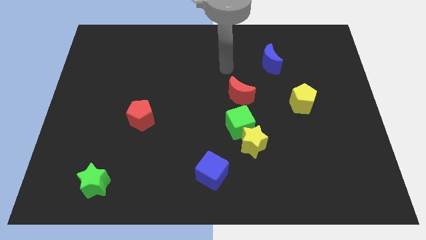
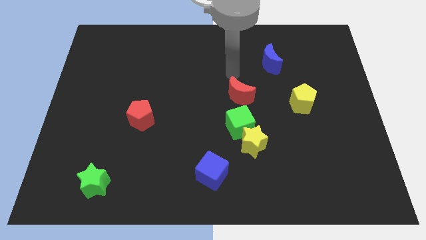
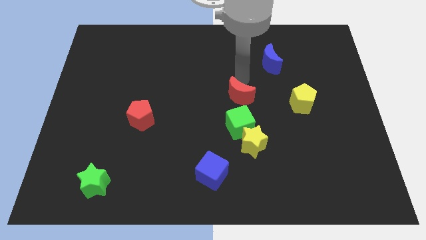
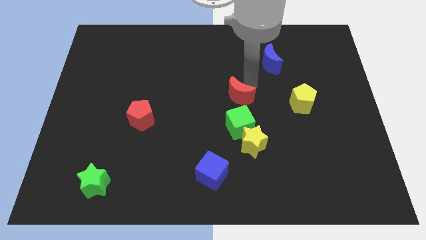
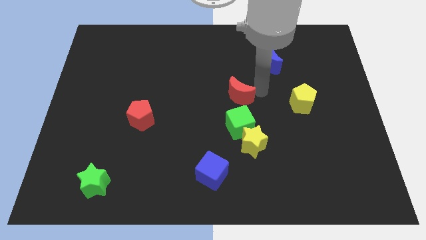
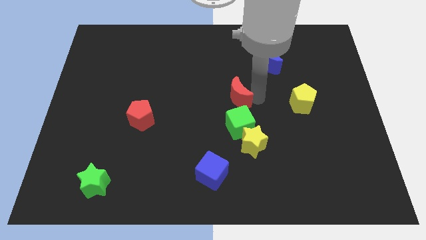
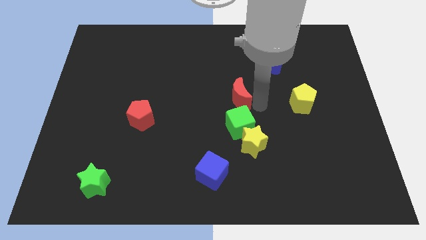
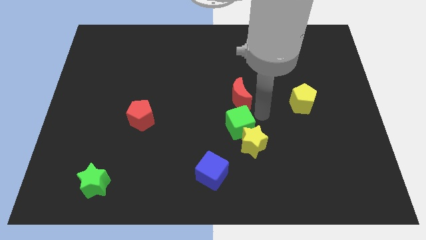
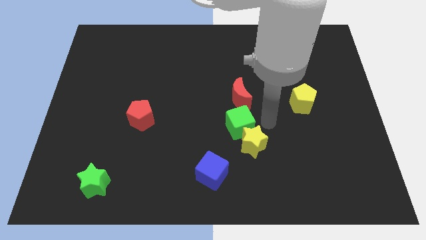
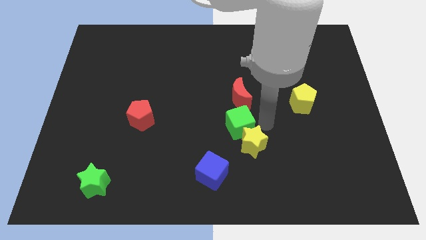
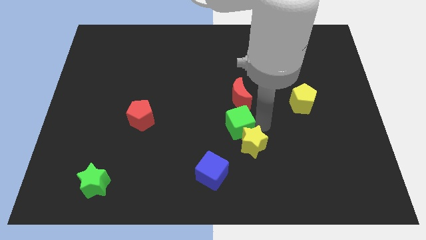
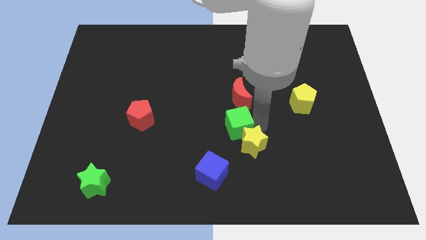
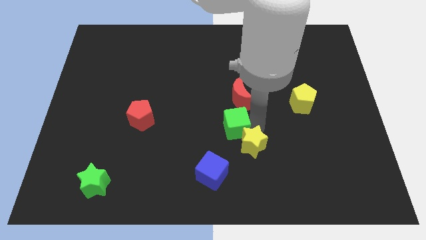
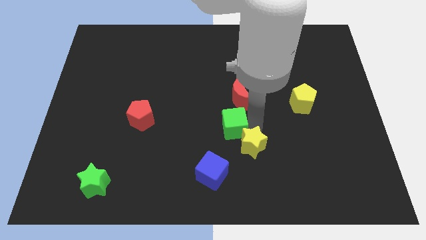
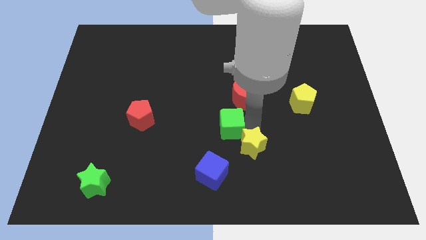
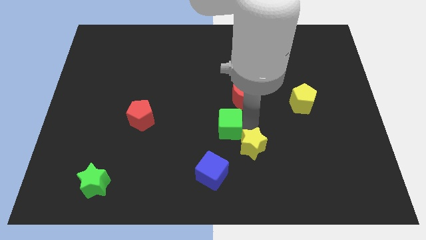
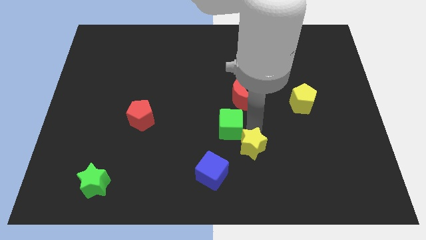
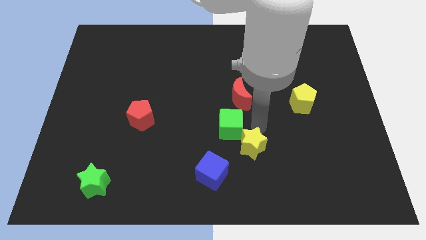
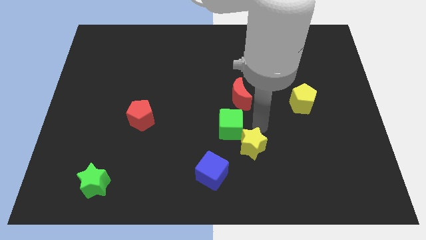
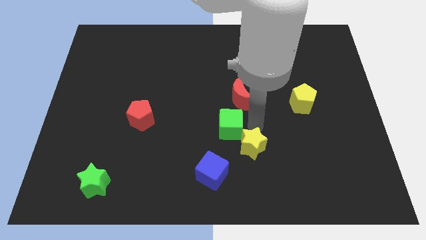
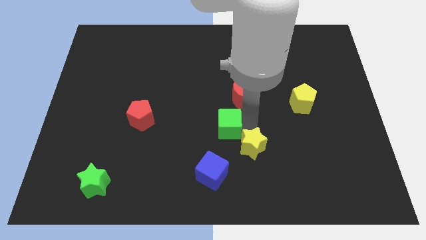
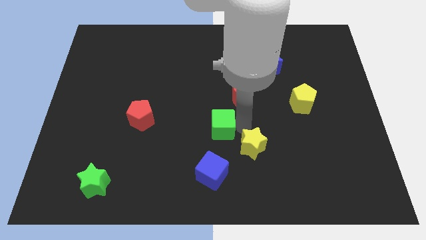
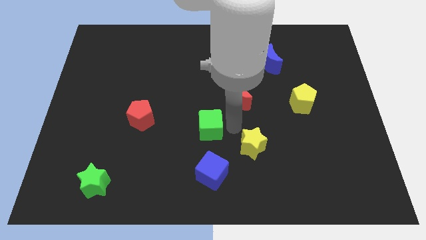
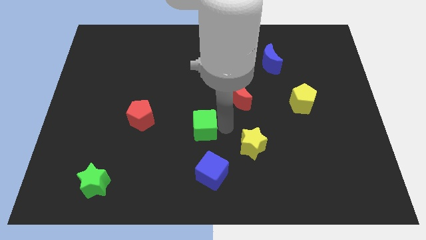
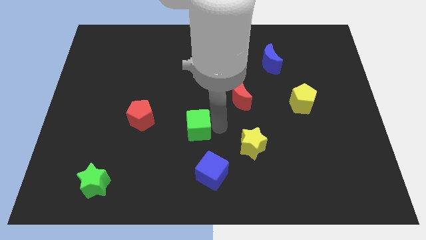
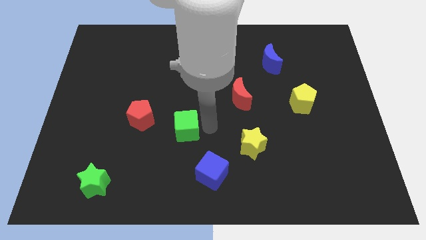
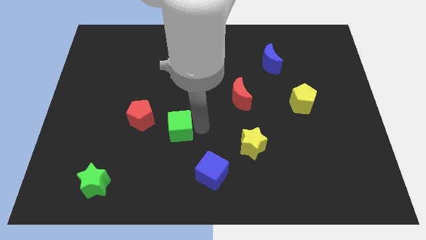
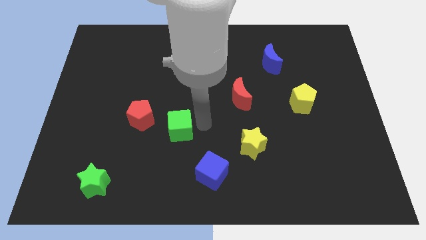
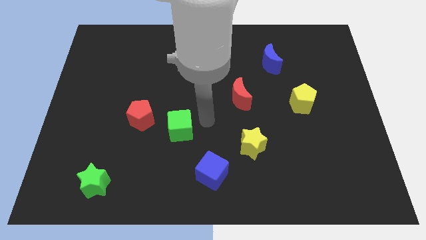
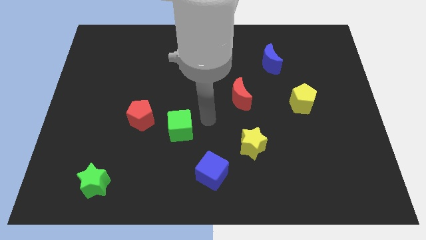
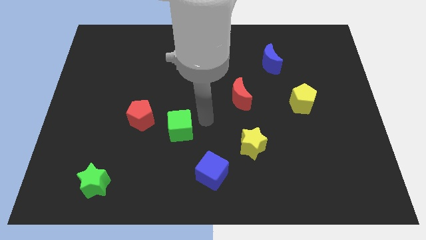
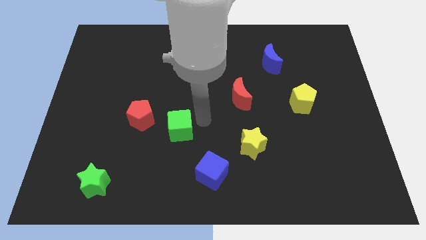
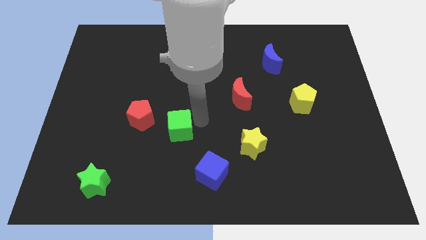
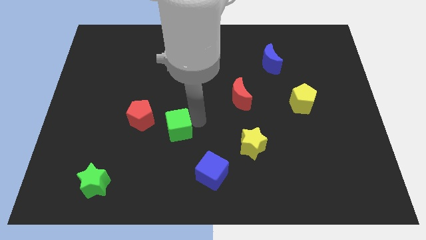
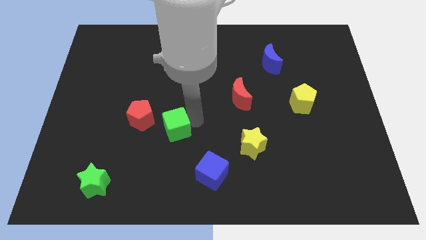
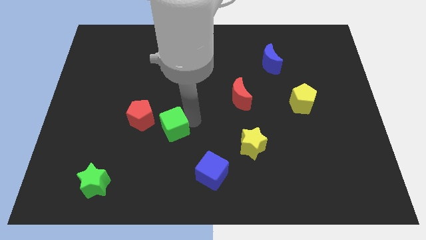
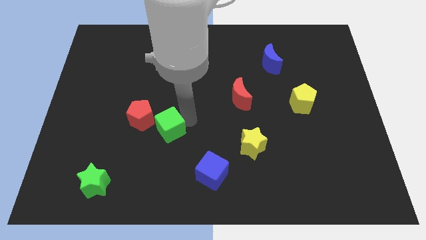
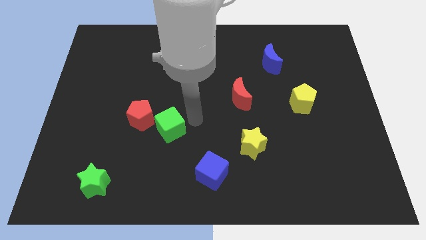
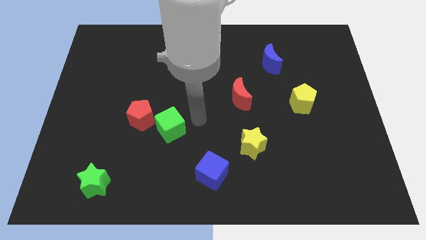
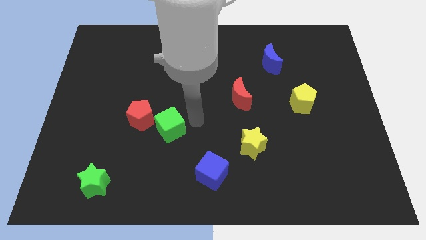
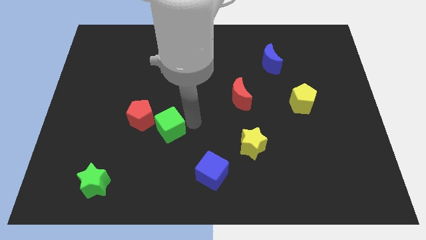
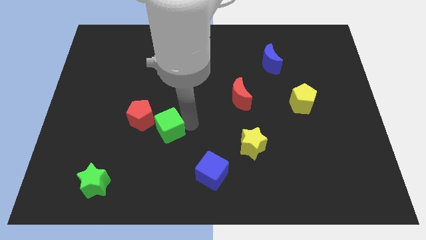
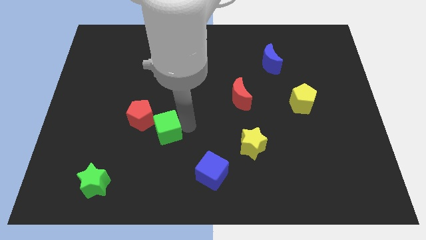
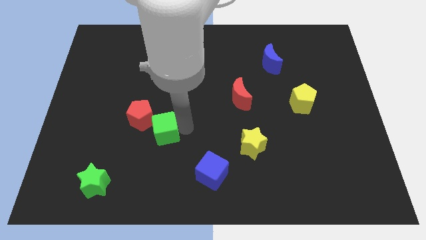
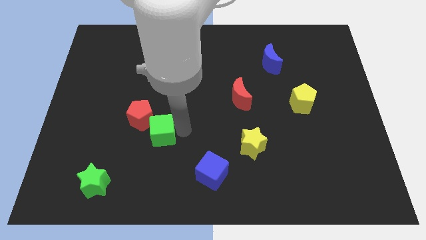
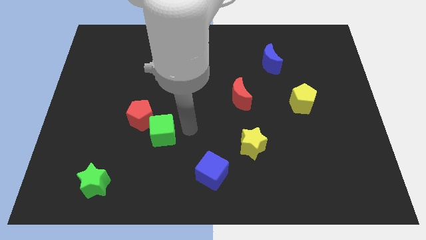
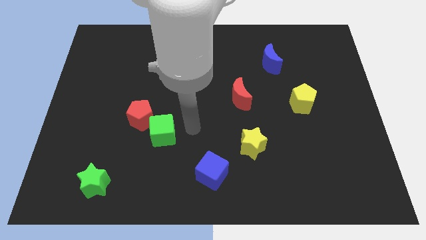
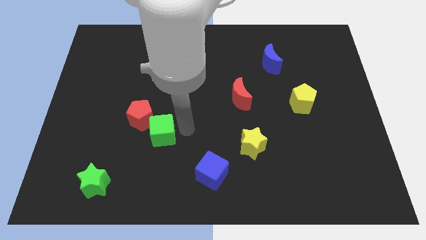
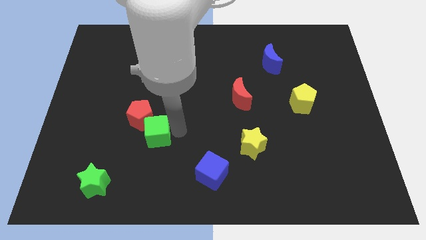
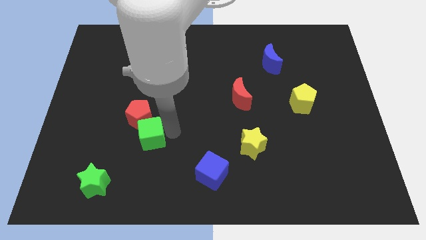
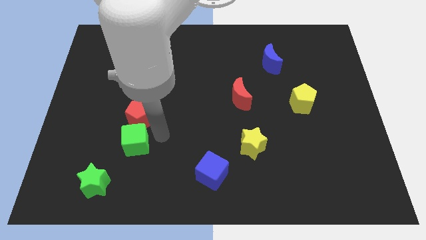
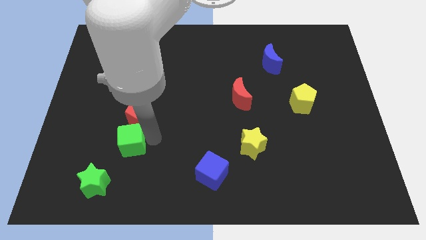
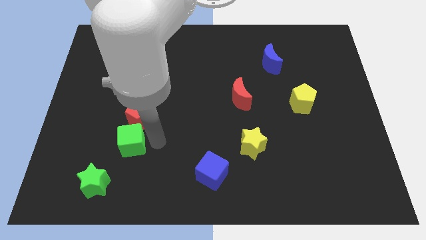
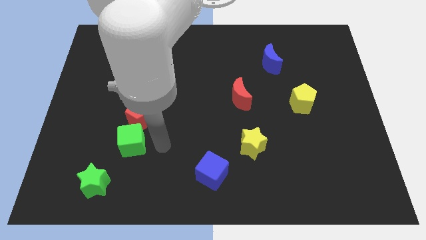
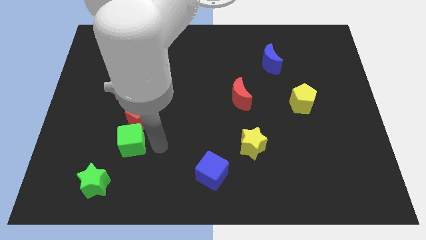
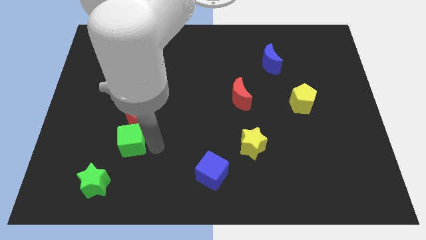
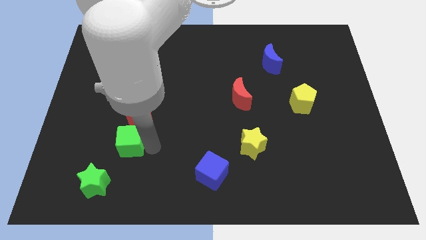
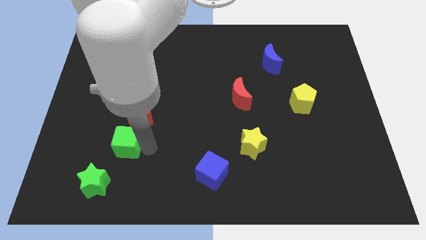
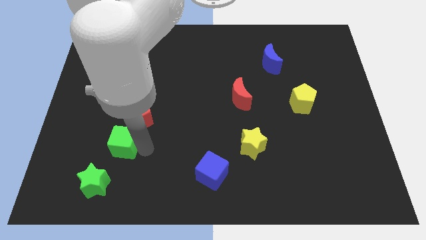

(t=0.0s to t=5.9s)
slide the green cube to the top of the green star
